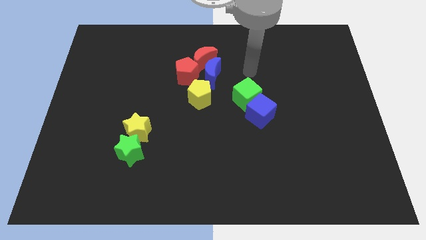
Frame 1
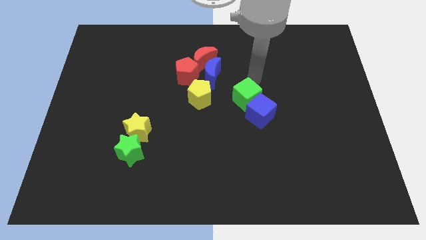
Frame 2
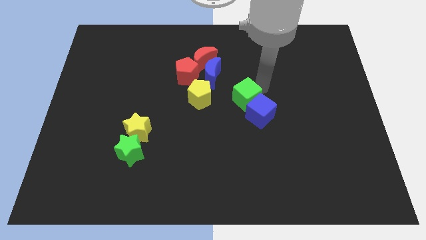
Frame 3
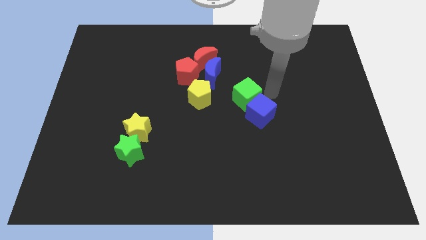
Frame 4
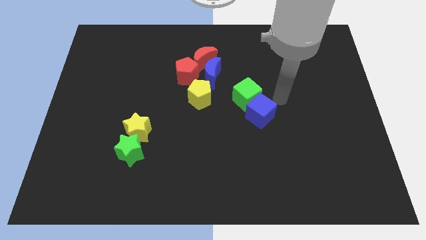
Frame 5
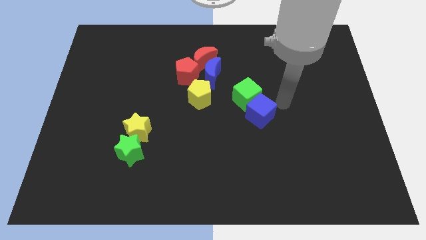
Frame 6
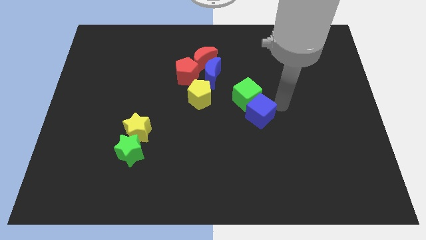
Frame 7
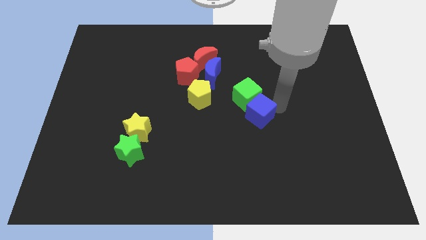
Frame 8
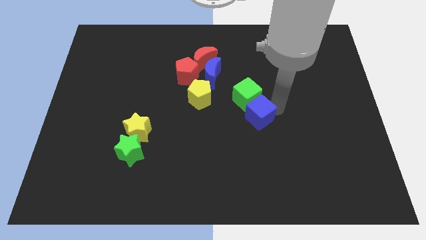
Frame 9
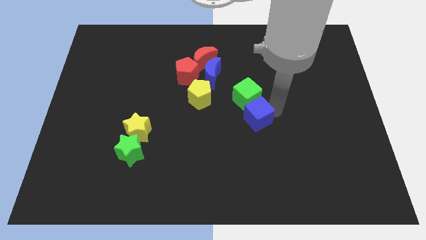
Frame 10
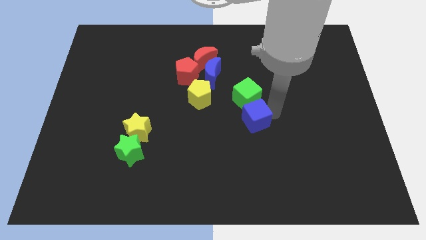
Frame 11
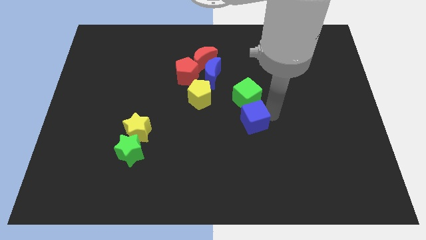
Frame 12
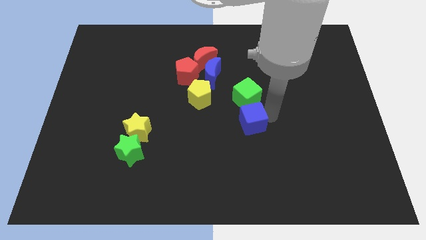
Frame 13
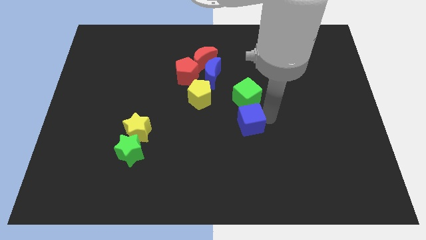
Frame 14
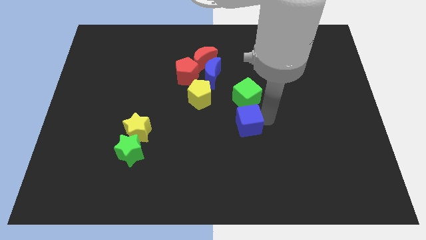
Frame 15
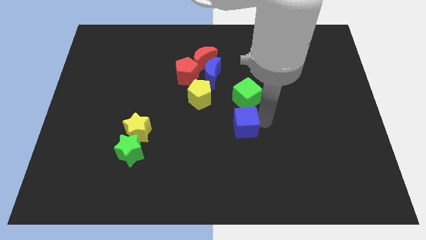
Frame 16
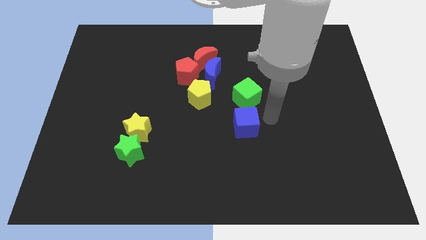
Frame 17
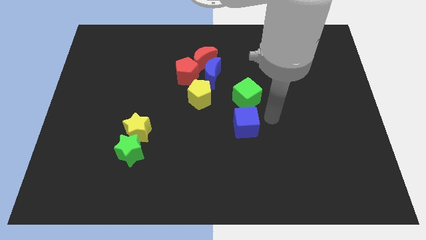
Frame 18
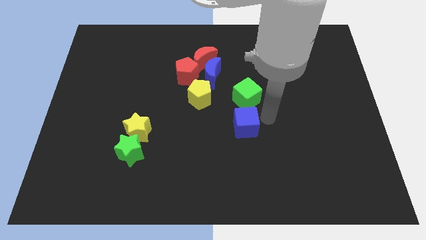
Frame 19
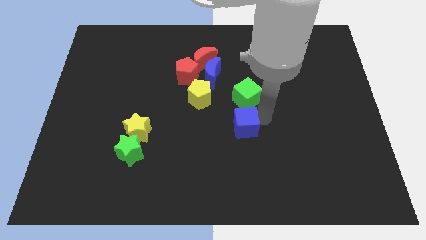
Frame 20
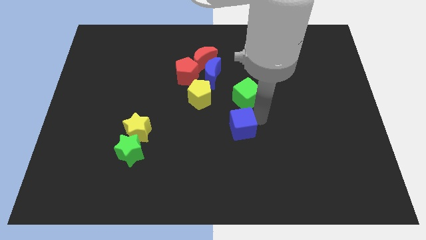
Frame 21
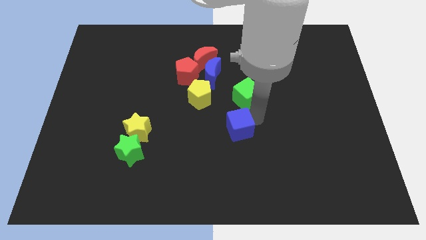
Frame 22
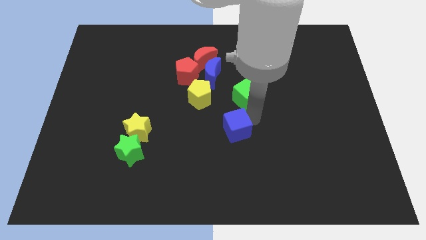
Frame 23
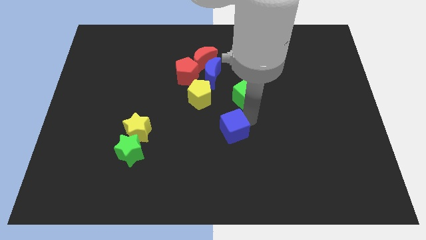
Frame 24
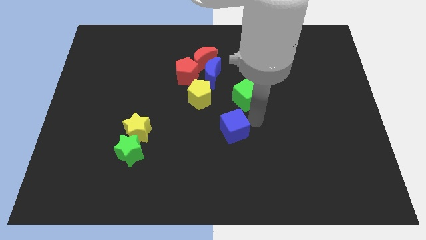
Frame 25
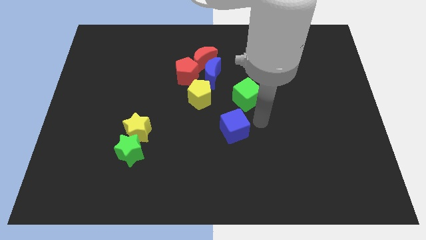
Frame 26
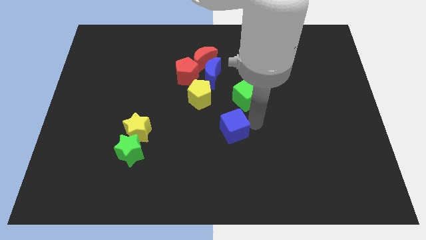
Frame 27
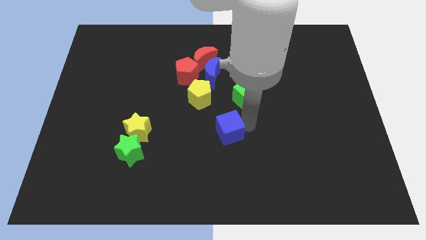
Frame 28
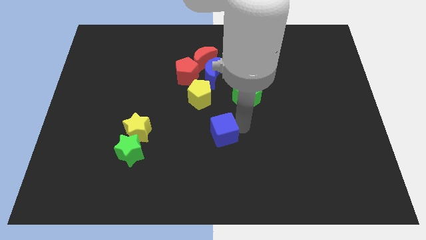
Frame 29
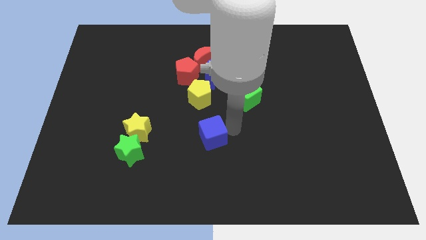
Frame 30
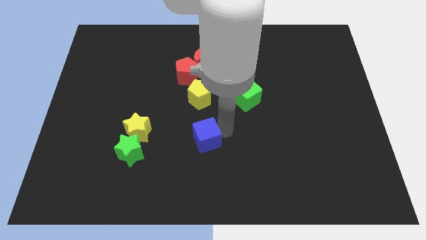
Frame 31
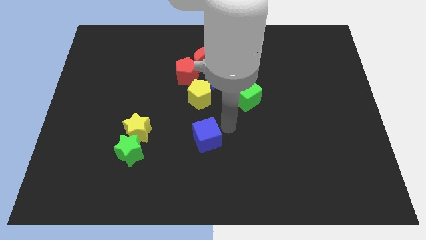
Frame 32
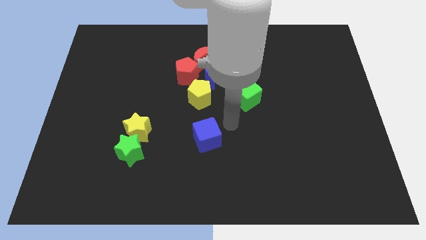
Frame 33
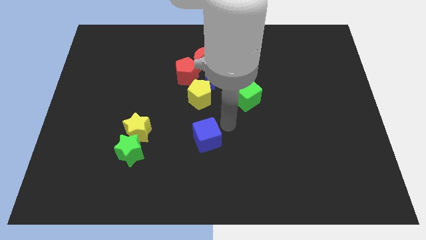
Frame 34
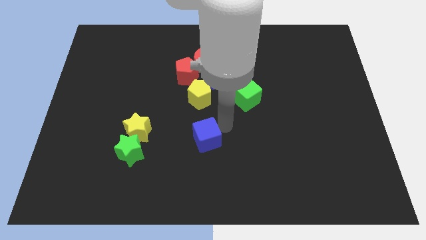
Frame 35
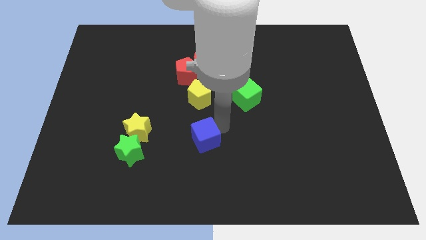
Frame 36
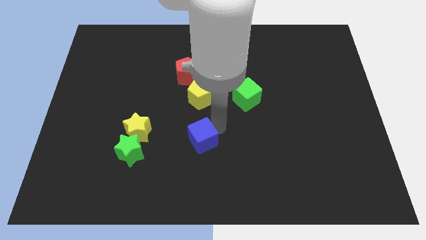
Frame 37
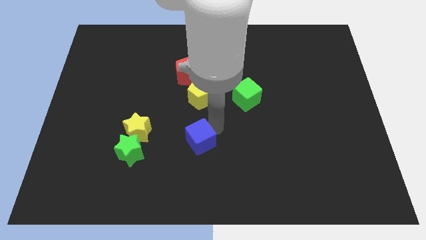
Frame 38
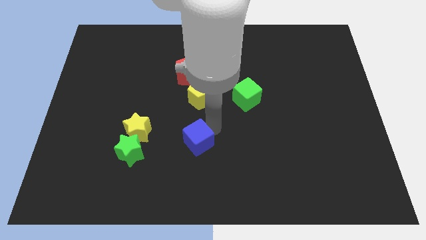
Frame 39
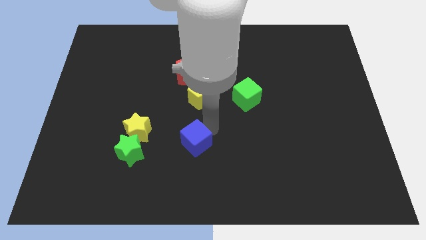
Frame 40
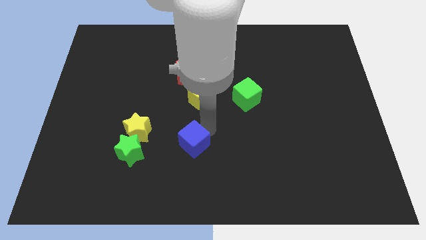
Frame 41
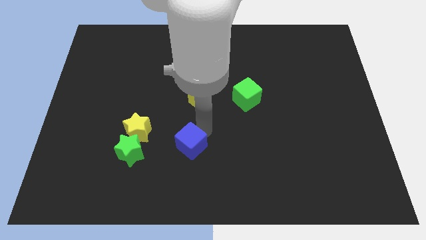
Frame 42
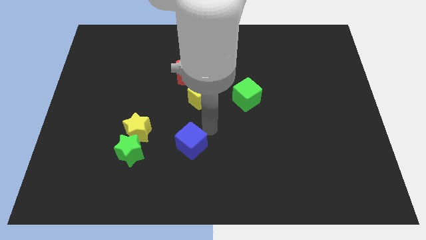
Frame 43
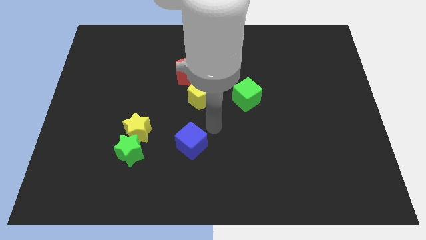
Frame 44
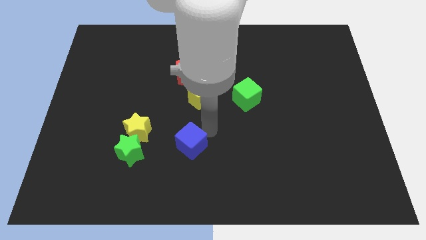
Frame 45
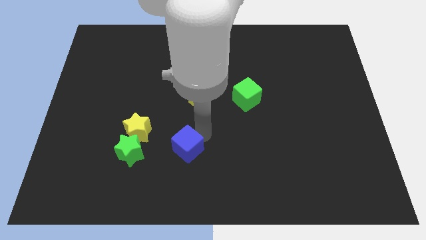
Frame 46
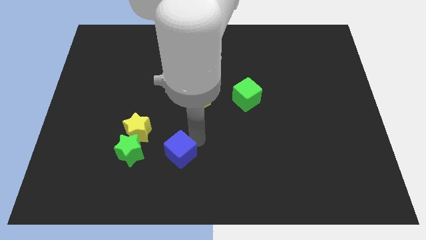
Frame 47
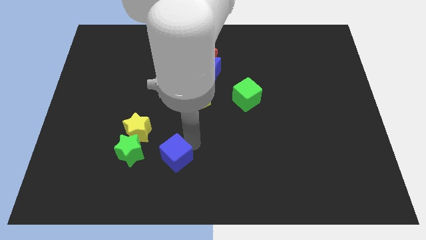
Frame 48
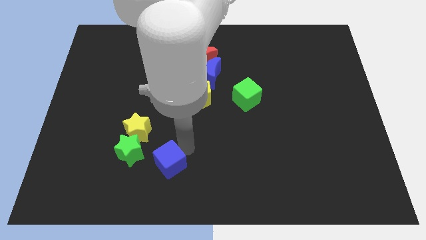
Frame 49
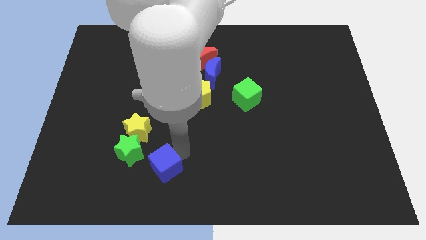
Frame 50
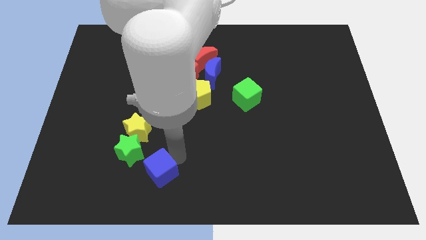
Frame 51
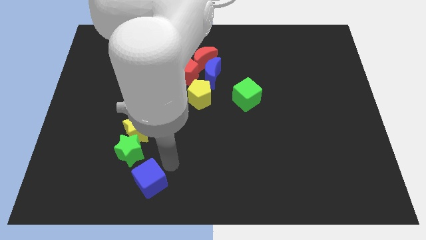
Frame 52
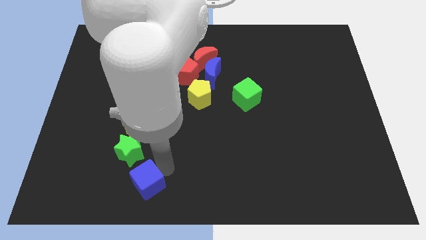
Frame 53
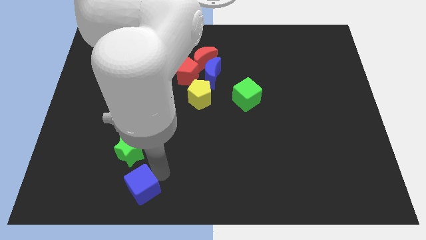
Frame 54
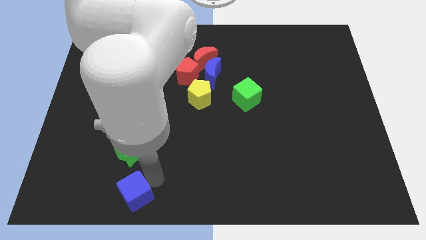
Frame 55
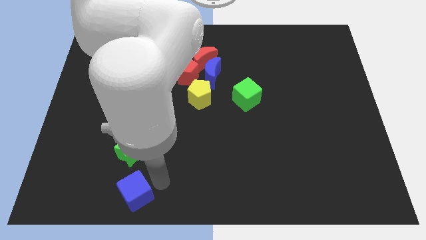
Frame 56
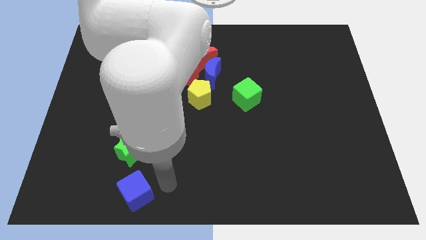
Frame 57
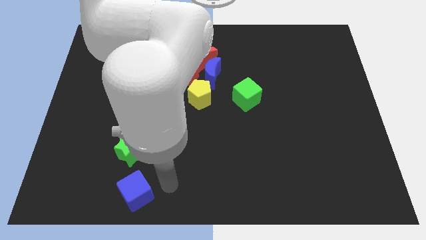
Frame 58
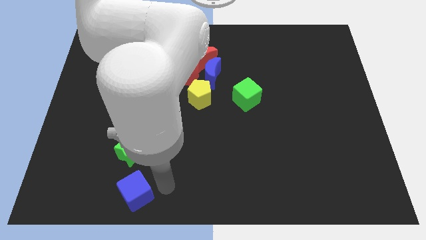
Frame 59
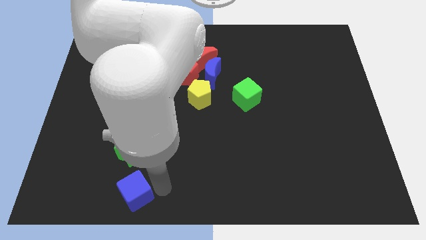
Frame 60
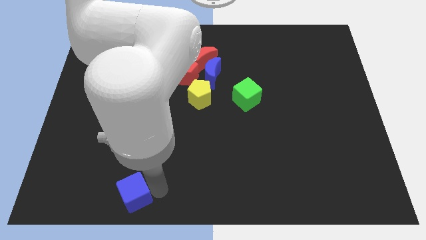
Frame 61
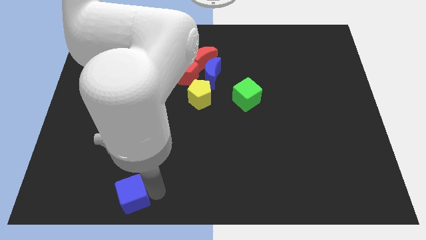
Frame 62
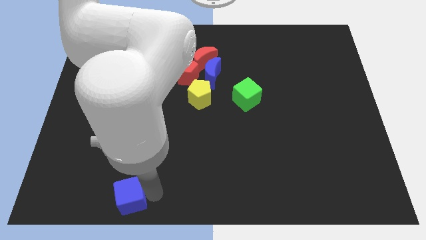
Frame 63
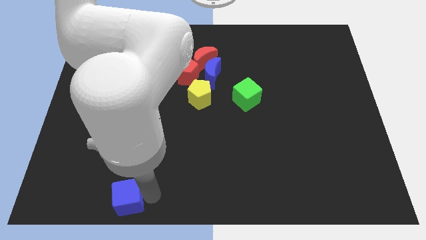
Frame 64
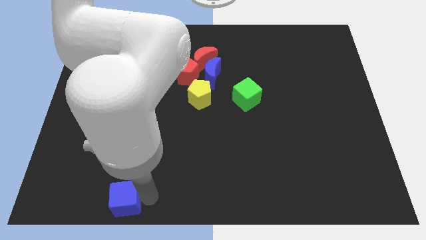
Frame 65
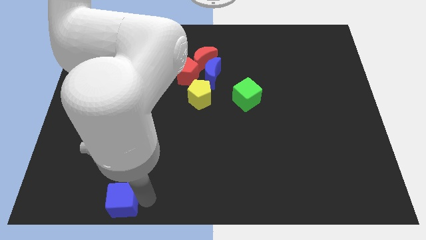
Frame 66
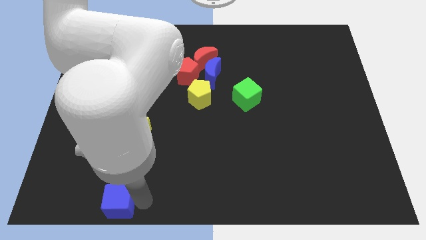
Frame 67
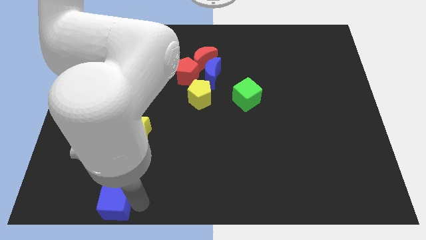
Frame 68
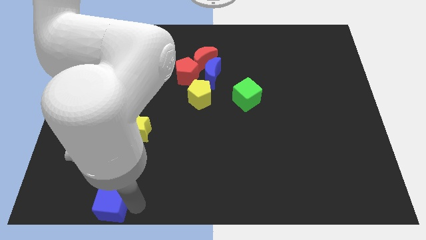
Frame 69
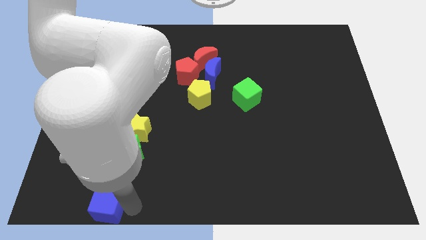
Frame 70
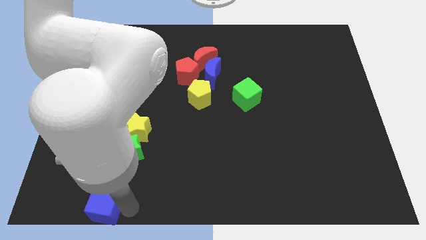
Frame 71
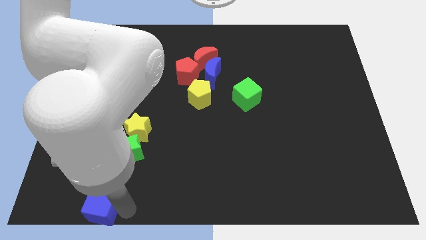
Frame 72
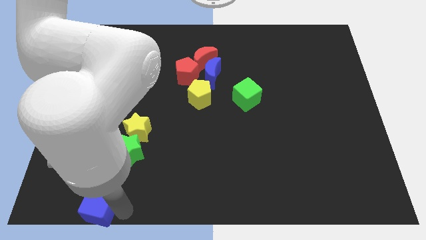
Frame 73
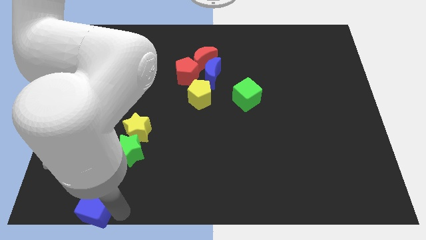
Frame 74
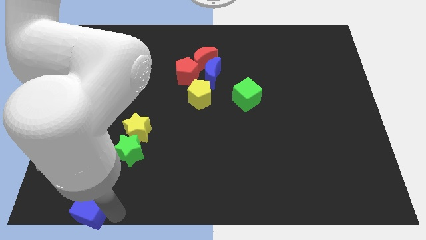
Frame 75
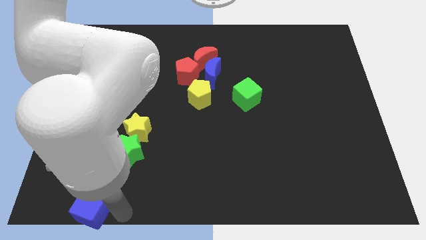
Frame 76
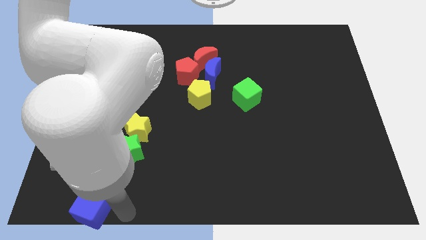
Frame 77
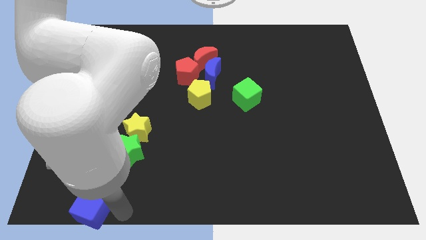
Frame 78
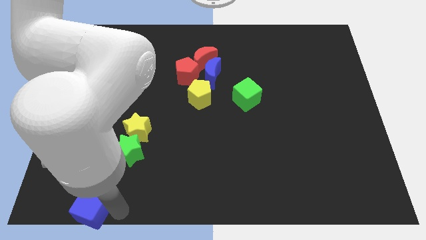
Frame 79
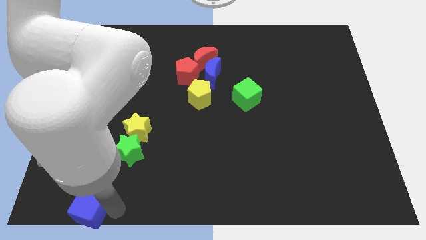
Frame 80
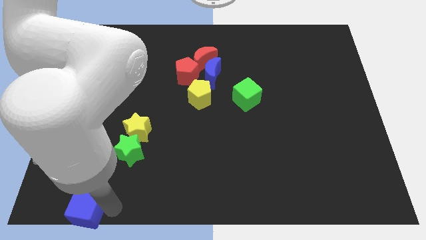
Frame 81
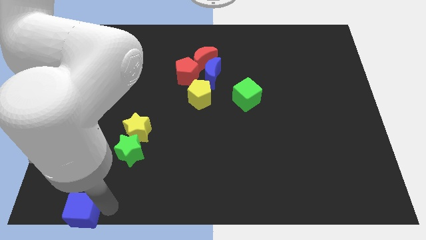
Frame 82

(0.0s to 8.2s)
move the blue cube to the lower left corner
